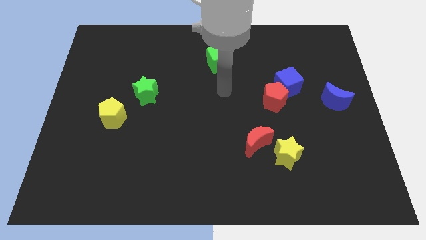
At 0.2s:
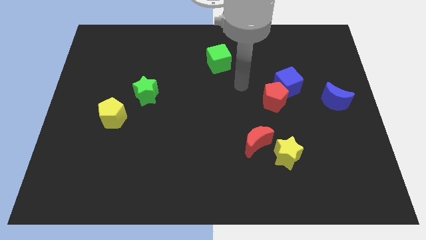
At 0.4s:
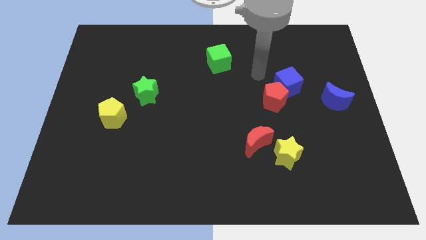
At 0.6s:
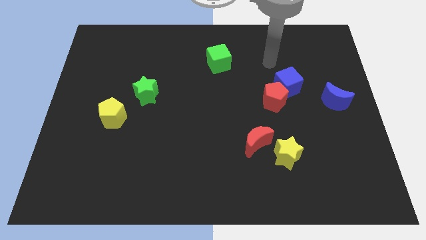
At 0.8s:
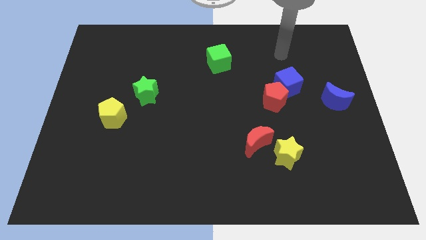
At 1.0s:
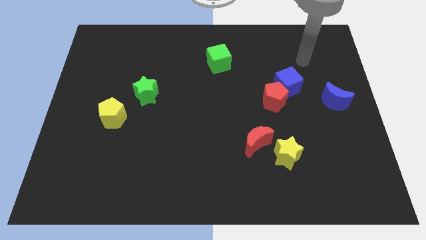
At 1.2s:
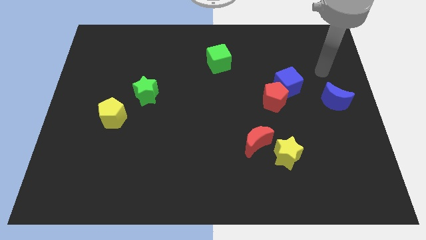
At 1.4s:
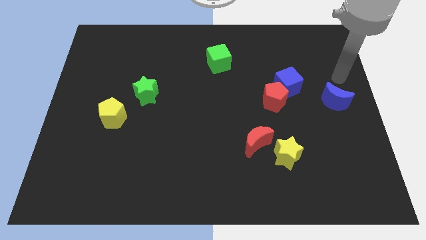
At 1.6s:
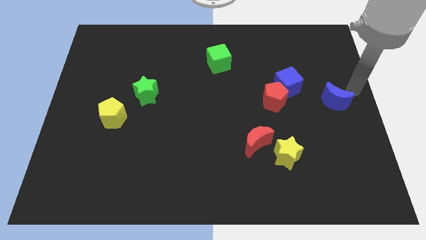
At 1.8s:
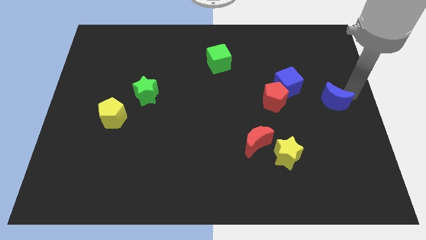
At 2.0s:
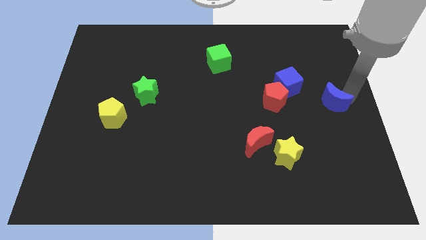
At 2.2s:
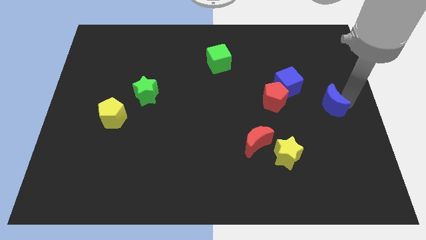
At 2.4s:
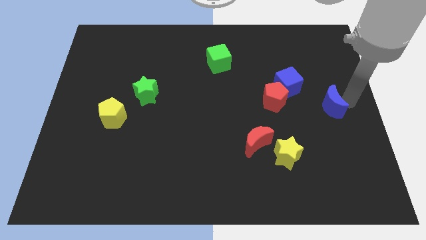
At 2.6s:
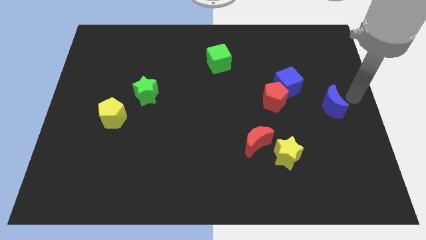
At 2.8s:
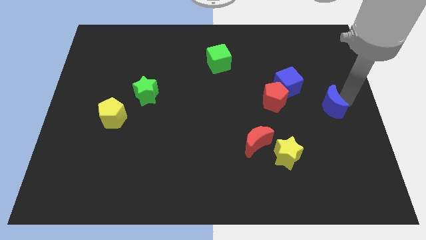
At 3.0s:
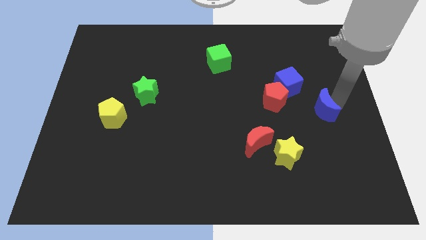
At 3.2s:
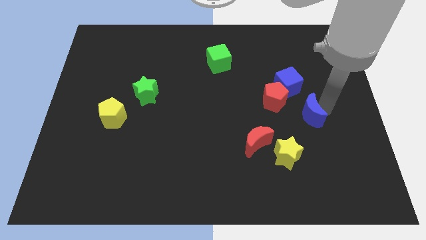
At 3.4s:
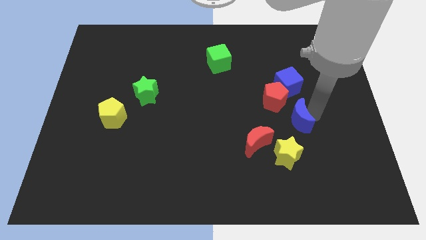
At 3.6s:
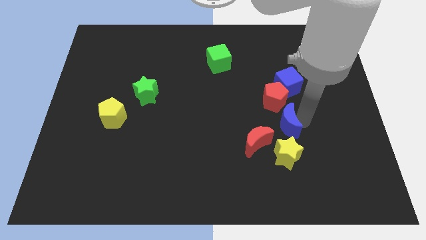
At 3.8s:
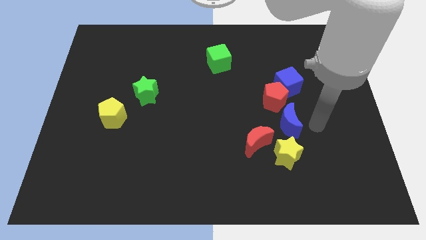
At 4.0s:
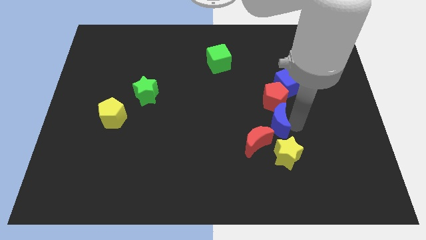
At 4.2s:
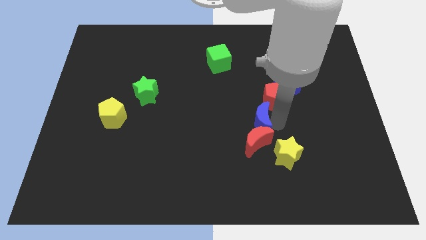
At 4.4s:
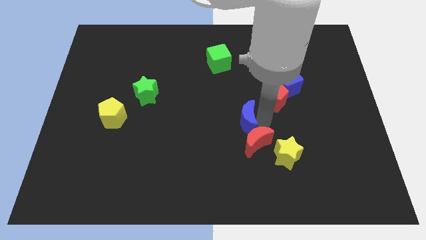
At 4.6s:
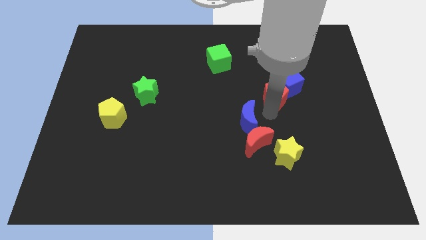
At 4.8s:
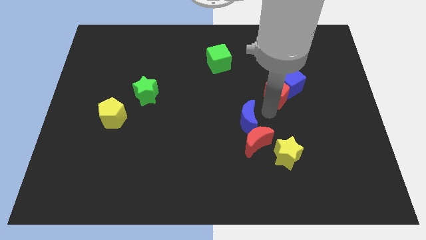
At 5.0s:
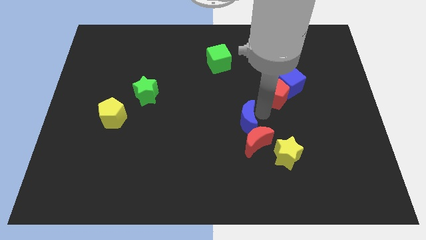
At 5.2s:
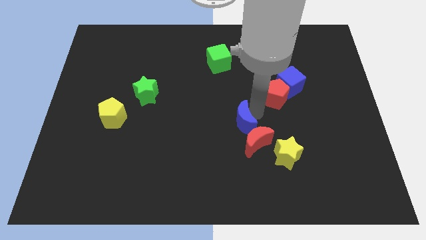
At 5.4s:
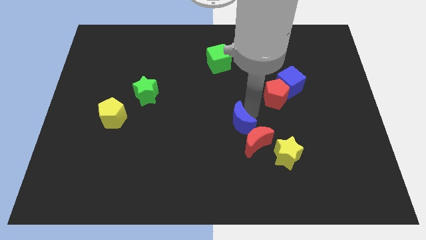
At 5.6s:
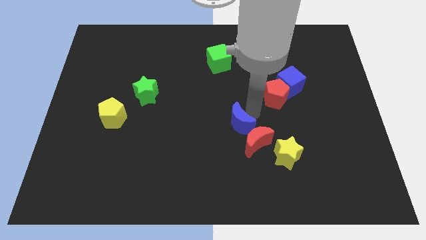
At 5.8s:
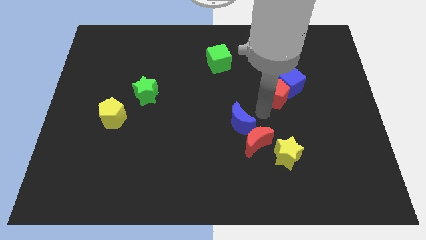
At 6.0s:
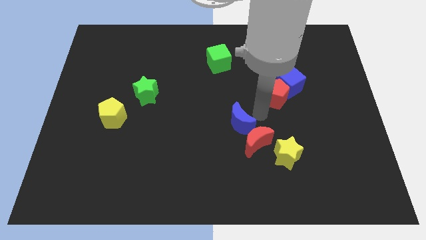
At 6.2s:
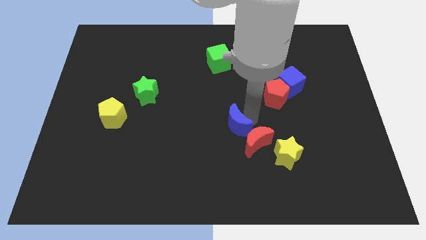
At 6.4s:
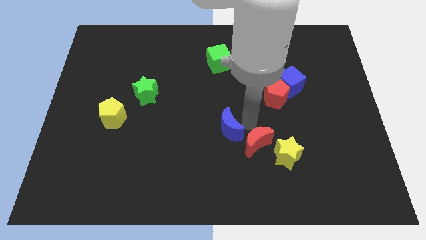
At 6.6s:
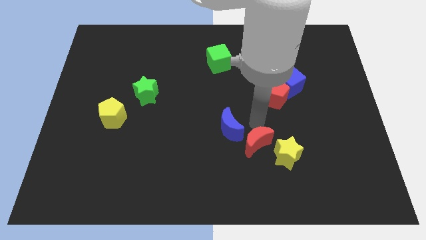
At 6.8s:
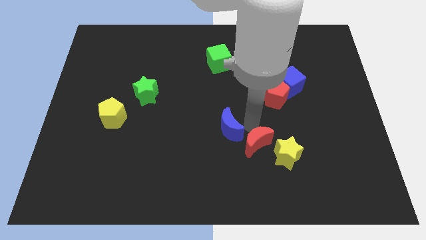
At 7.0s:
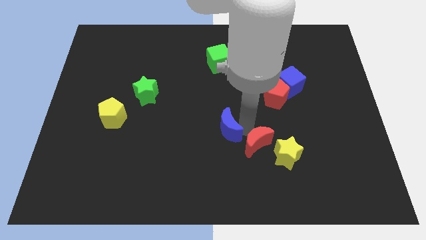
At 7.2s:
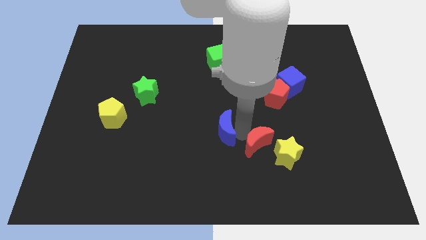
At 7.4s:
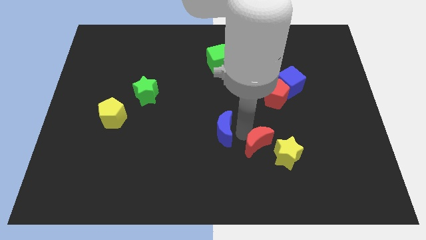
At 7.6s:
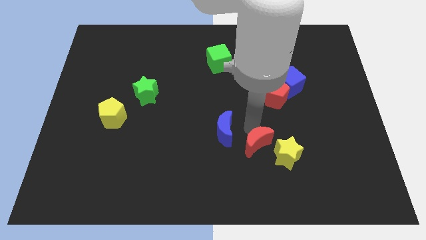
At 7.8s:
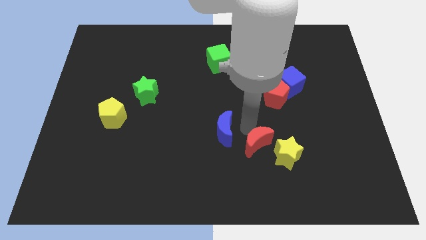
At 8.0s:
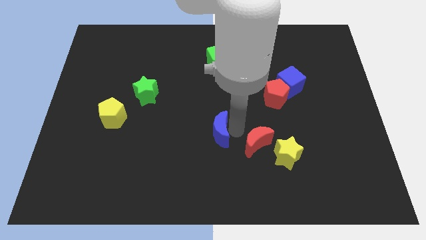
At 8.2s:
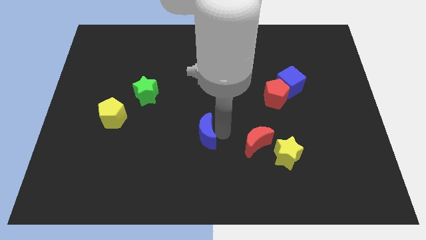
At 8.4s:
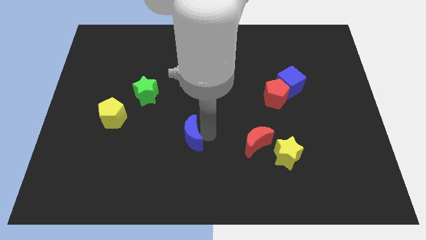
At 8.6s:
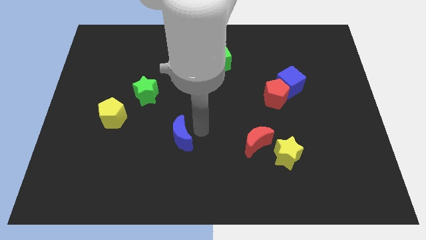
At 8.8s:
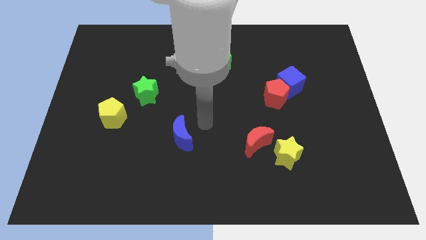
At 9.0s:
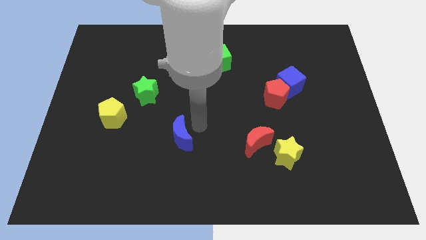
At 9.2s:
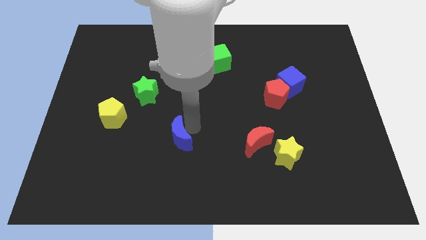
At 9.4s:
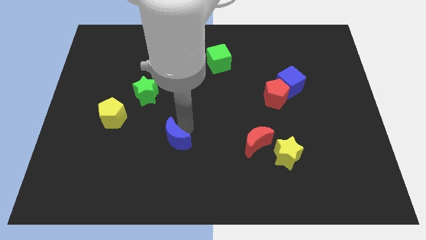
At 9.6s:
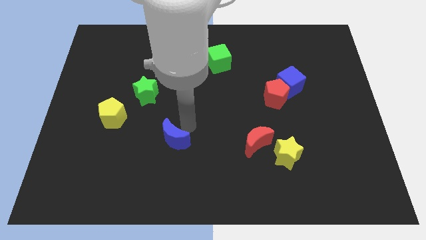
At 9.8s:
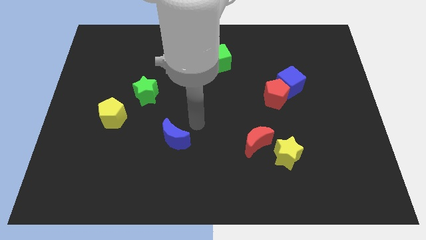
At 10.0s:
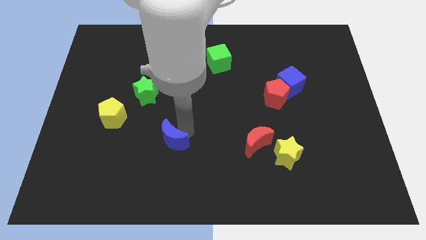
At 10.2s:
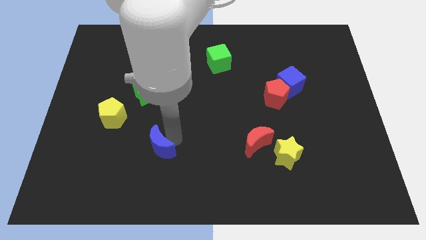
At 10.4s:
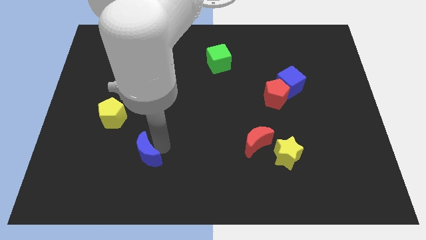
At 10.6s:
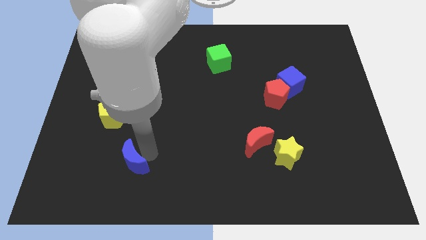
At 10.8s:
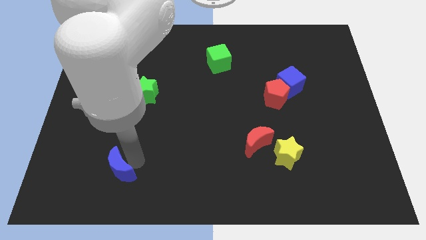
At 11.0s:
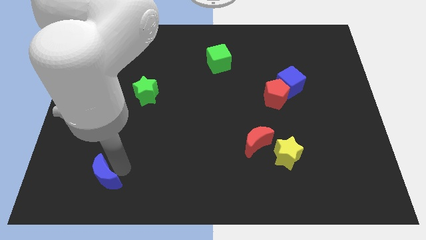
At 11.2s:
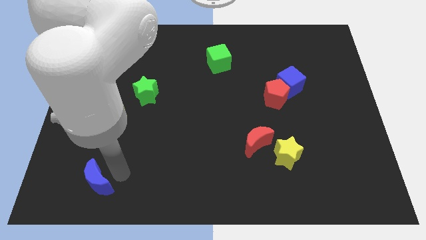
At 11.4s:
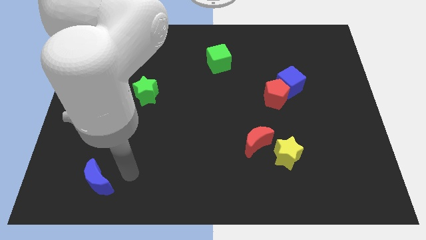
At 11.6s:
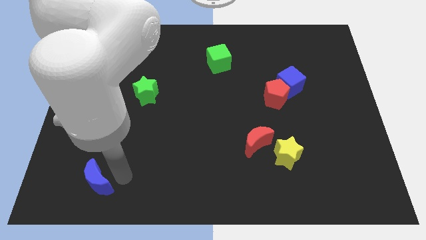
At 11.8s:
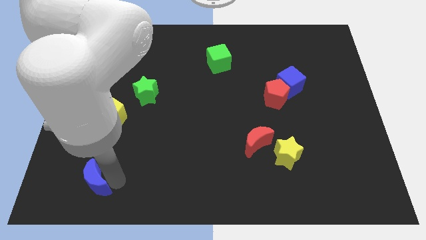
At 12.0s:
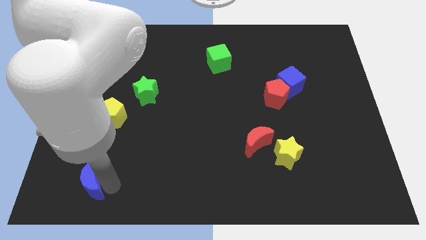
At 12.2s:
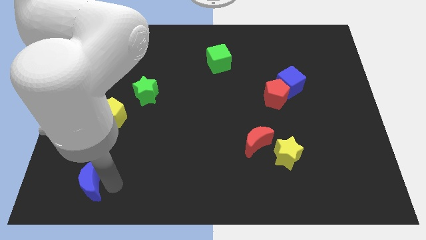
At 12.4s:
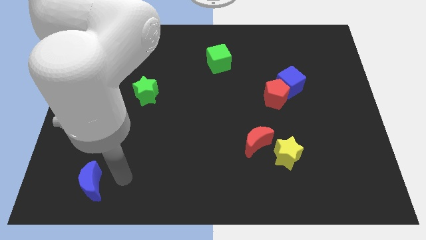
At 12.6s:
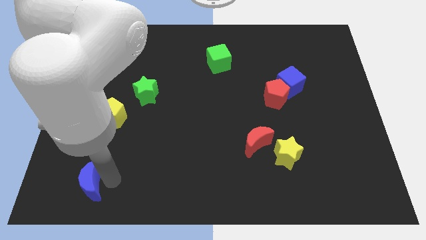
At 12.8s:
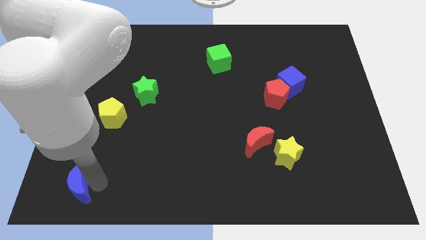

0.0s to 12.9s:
push the blue moon to the bottom left of the board
